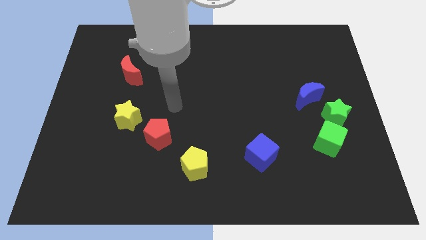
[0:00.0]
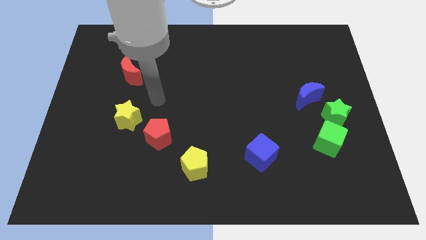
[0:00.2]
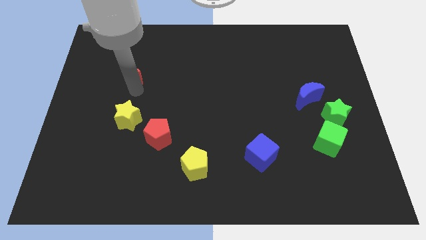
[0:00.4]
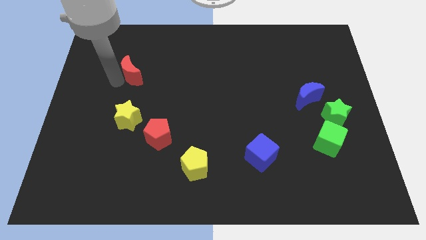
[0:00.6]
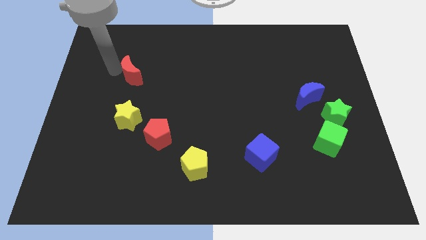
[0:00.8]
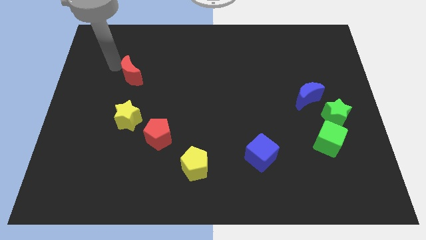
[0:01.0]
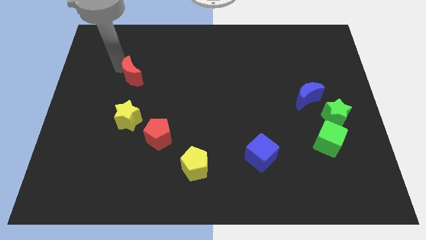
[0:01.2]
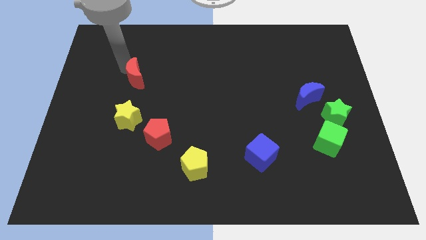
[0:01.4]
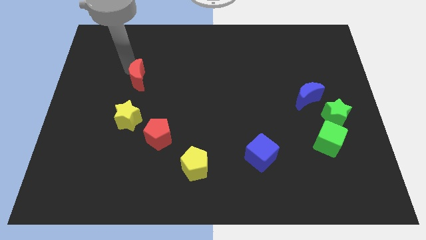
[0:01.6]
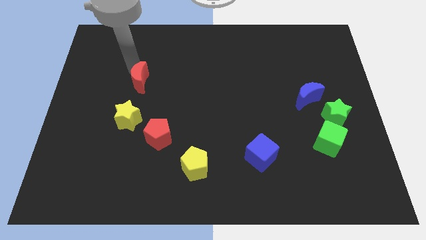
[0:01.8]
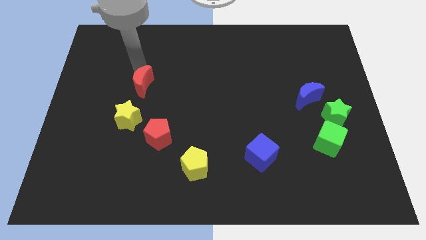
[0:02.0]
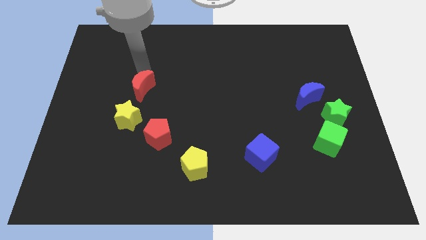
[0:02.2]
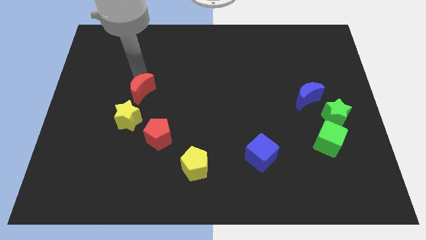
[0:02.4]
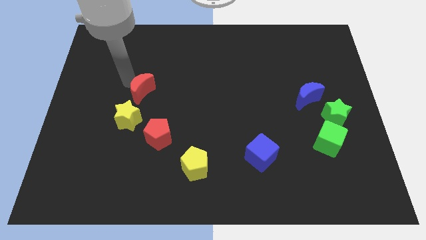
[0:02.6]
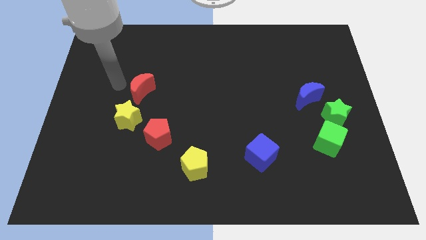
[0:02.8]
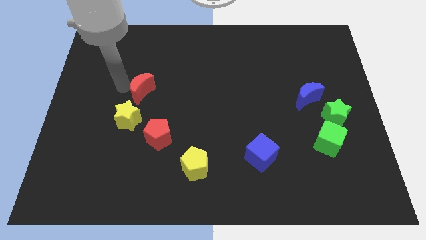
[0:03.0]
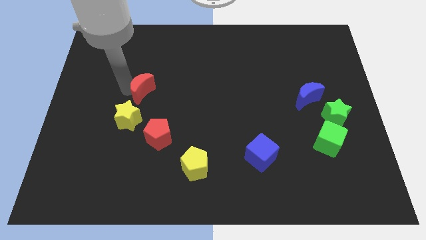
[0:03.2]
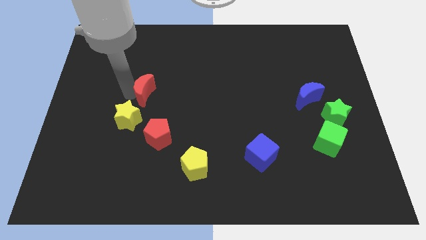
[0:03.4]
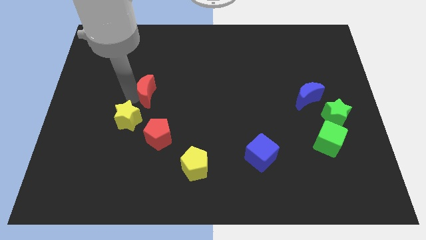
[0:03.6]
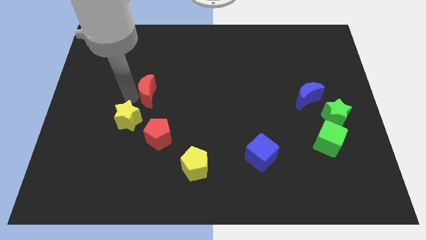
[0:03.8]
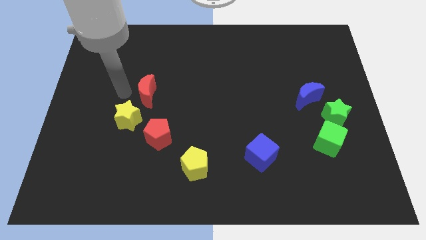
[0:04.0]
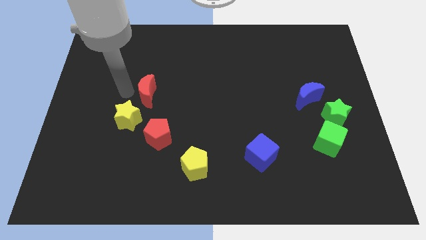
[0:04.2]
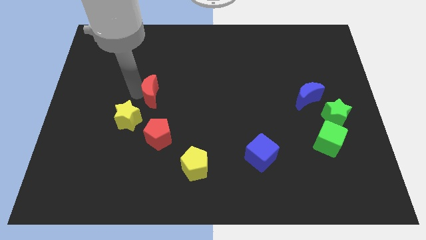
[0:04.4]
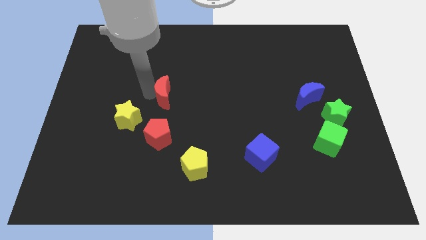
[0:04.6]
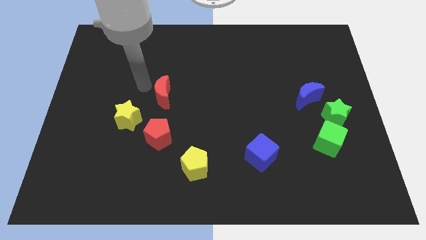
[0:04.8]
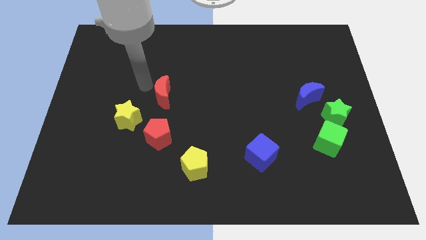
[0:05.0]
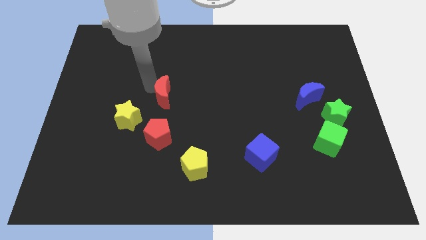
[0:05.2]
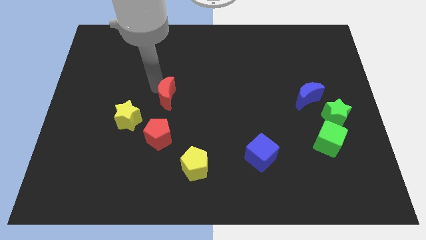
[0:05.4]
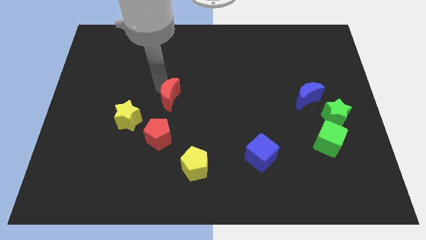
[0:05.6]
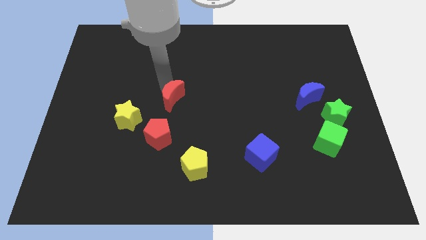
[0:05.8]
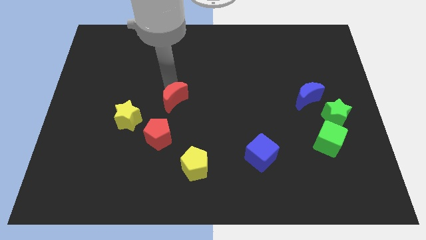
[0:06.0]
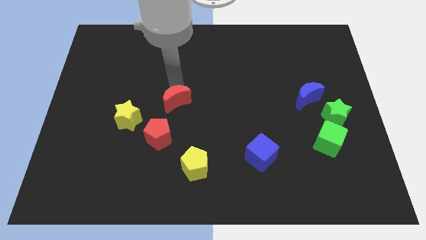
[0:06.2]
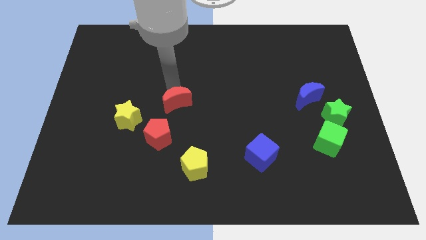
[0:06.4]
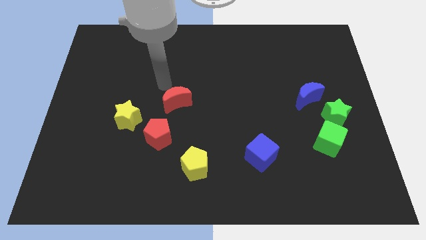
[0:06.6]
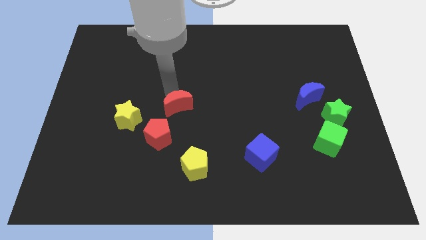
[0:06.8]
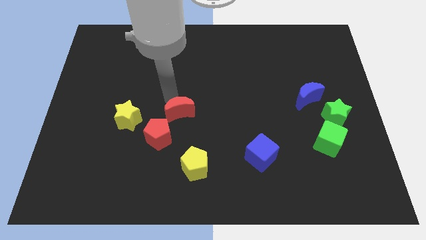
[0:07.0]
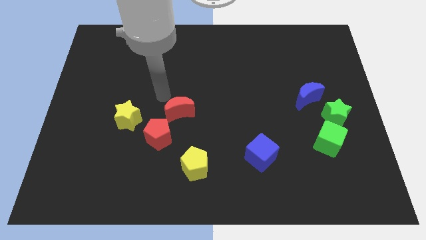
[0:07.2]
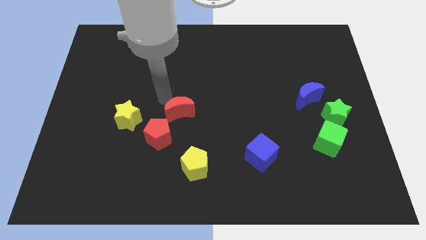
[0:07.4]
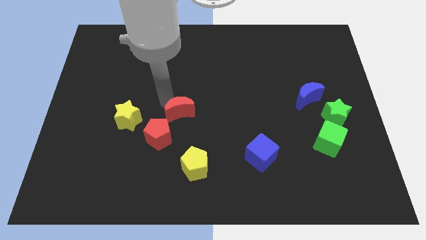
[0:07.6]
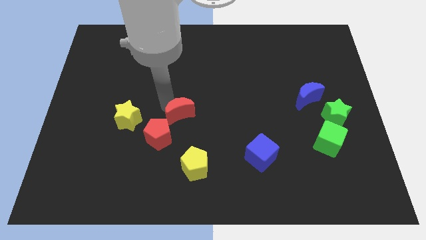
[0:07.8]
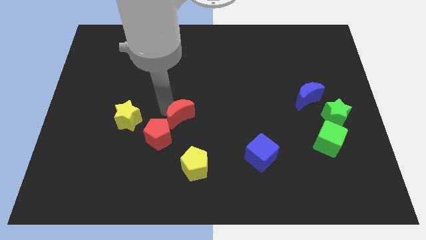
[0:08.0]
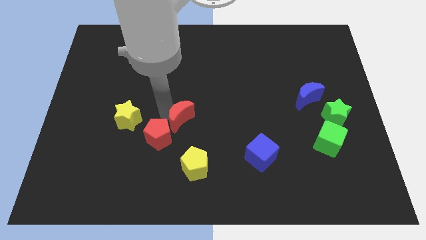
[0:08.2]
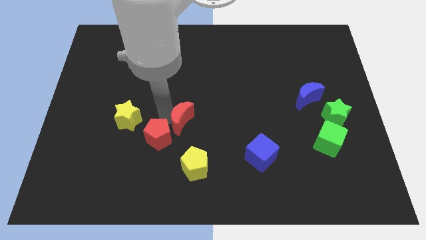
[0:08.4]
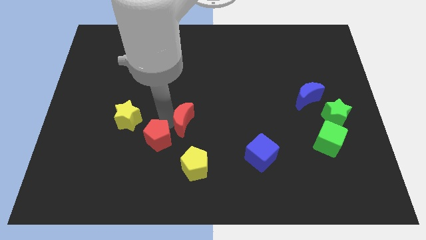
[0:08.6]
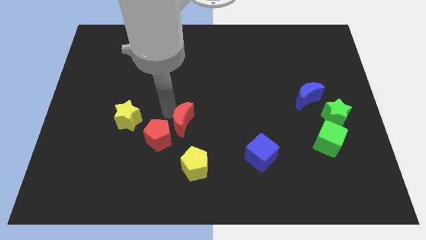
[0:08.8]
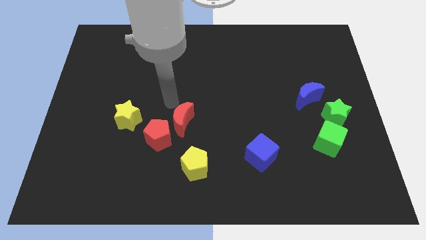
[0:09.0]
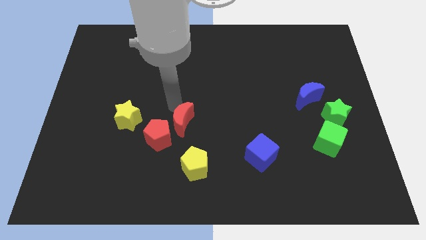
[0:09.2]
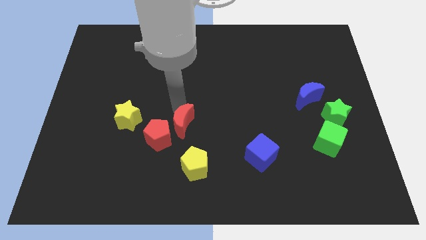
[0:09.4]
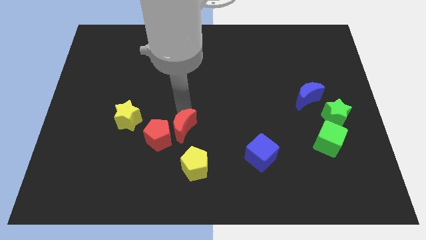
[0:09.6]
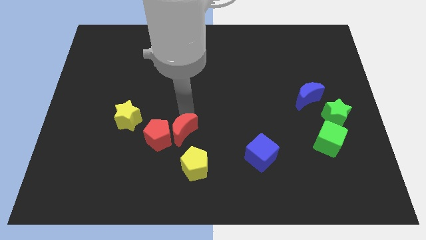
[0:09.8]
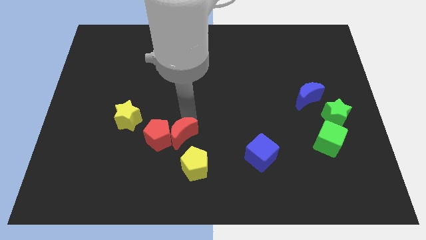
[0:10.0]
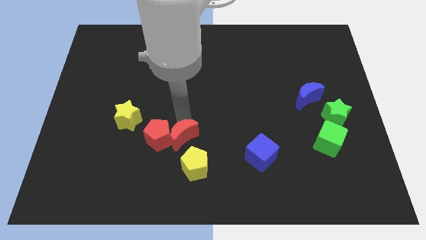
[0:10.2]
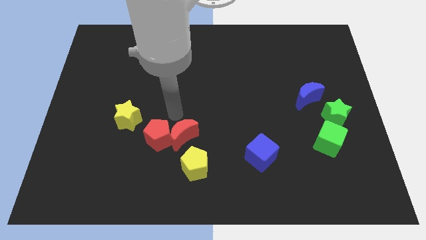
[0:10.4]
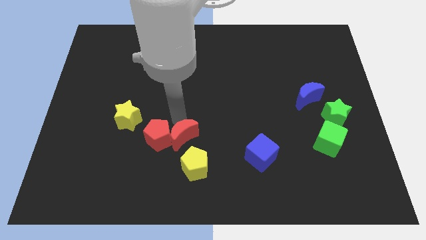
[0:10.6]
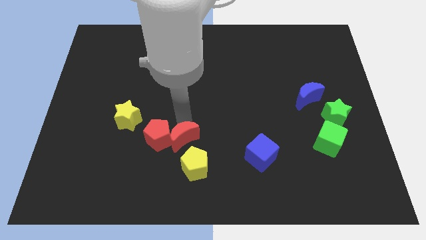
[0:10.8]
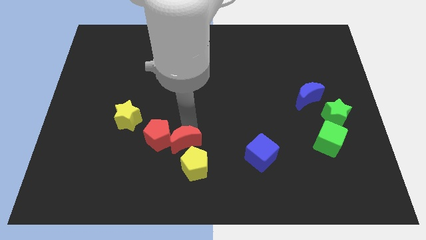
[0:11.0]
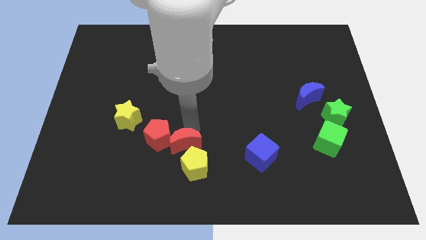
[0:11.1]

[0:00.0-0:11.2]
slide the red moon close to the yellow pentagon
